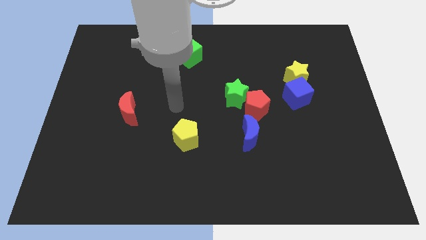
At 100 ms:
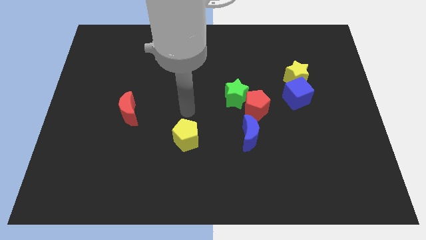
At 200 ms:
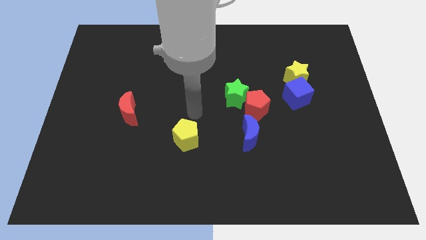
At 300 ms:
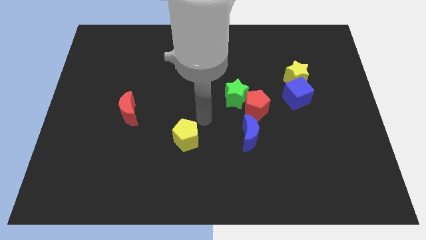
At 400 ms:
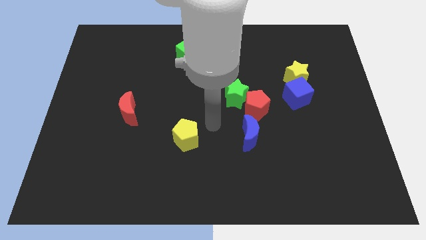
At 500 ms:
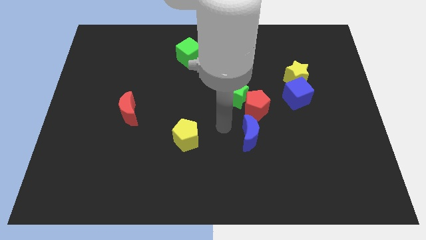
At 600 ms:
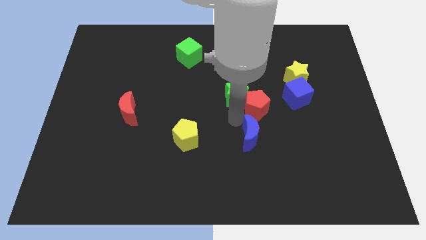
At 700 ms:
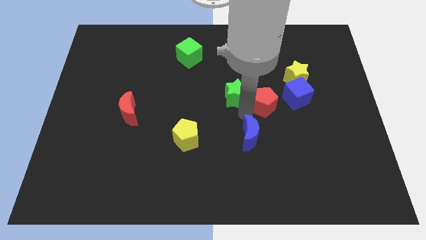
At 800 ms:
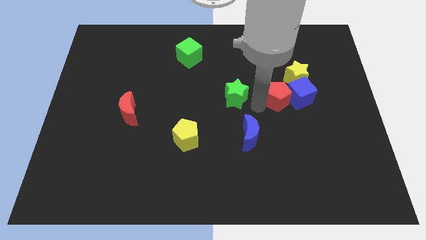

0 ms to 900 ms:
pull the green star apart from the red pentagon

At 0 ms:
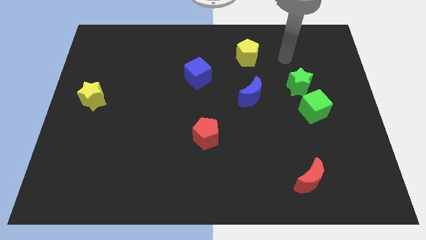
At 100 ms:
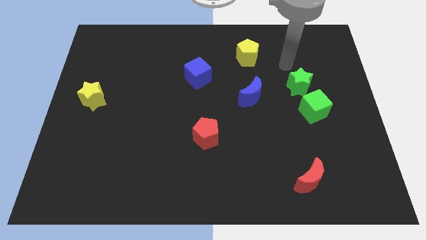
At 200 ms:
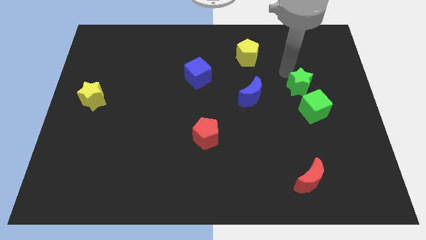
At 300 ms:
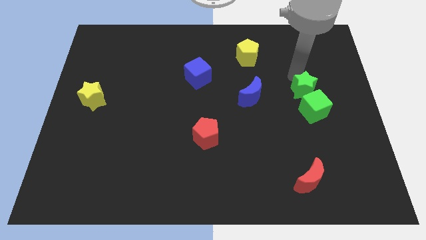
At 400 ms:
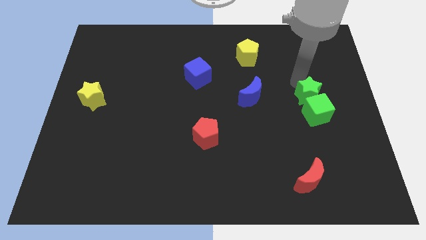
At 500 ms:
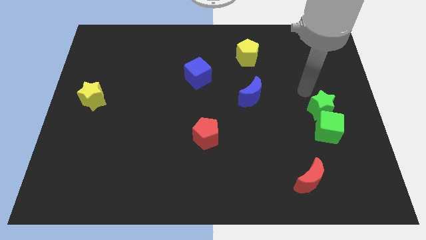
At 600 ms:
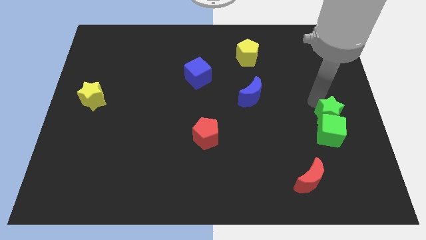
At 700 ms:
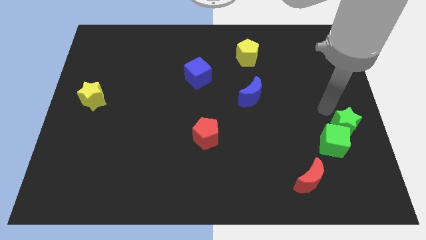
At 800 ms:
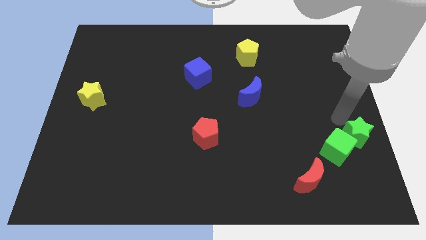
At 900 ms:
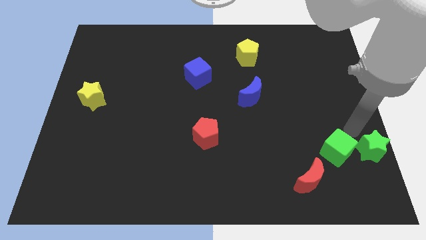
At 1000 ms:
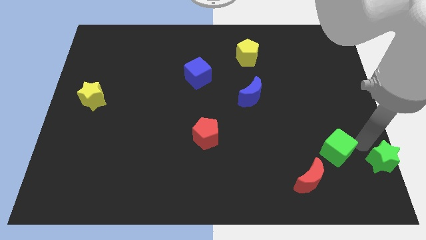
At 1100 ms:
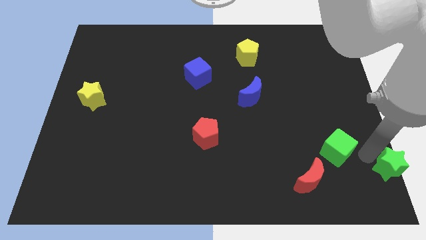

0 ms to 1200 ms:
separate the green cube from the green star

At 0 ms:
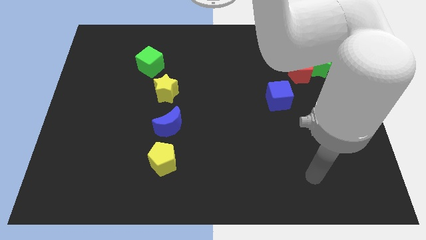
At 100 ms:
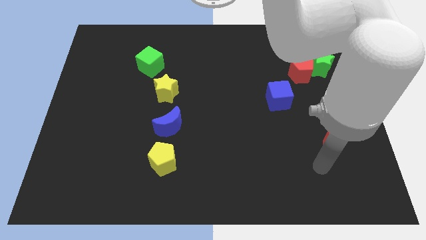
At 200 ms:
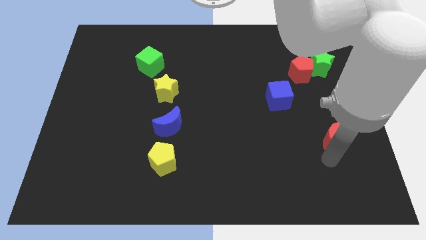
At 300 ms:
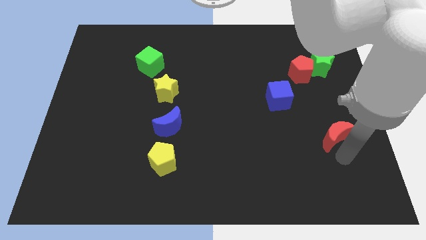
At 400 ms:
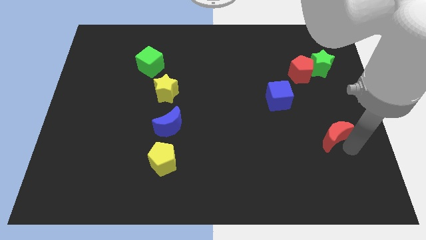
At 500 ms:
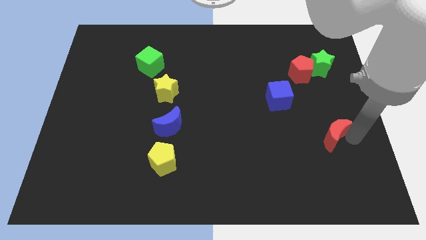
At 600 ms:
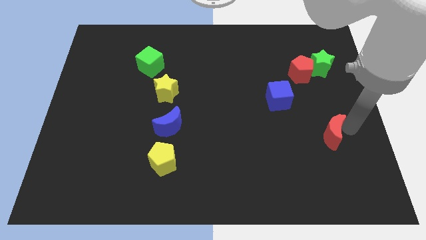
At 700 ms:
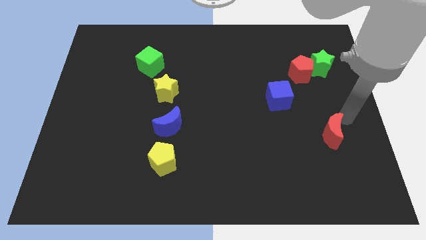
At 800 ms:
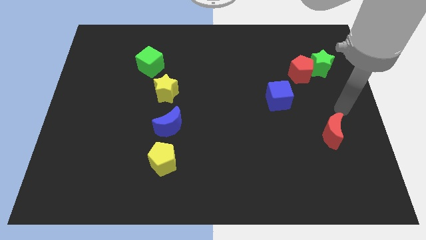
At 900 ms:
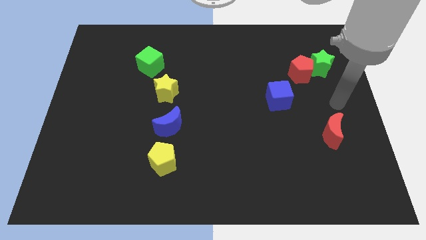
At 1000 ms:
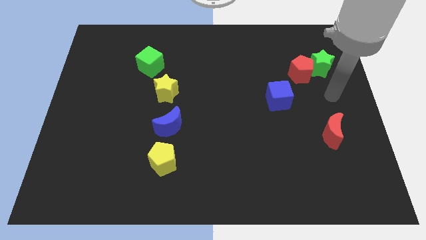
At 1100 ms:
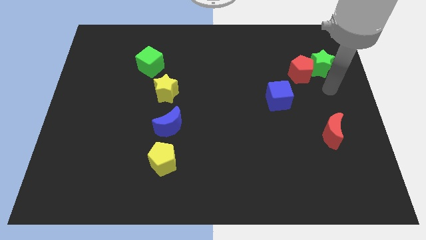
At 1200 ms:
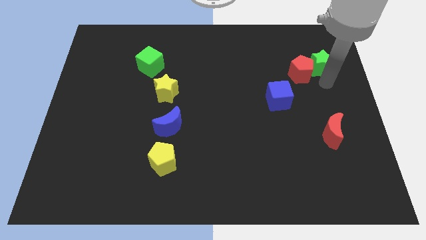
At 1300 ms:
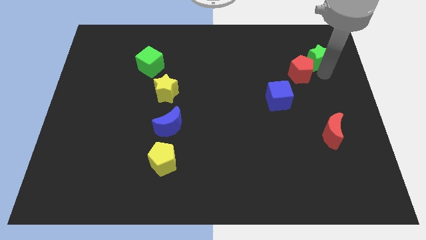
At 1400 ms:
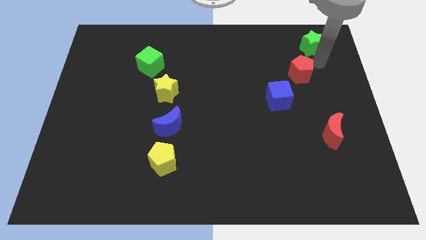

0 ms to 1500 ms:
separate the red pentagon from the green star

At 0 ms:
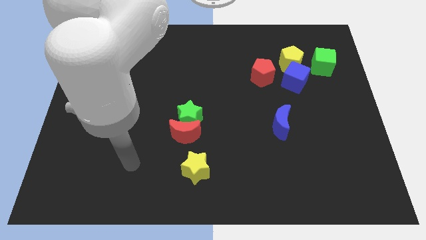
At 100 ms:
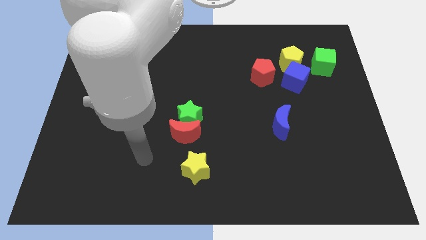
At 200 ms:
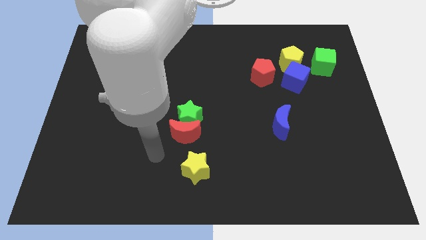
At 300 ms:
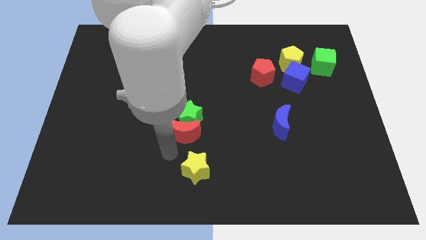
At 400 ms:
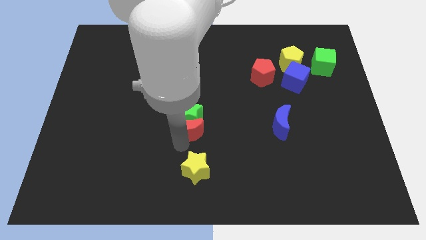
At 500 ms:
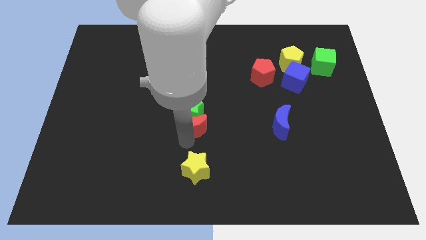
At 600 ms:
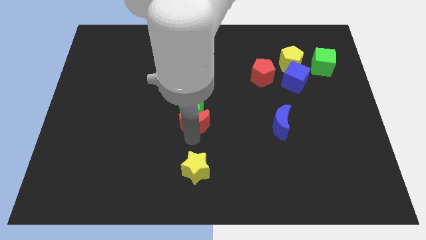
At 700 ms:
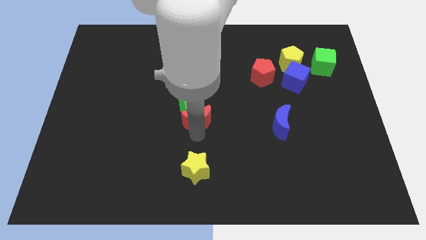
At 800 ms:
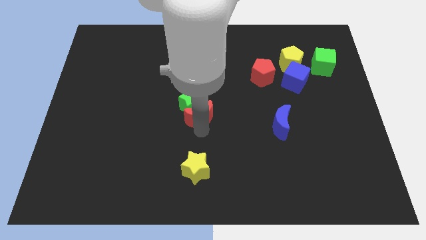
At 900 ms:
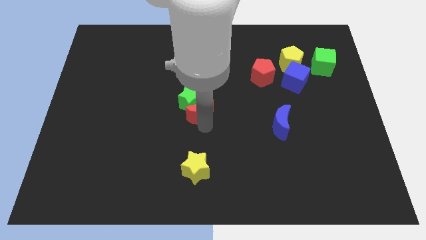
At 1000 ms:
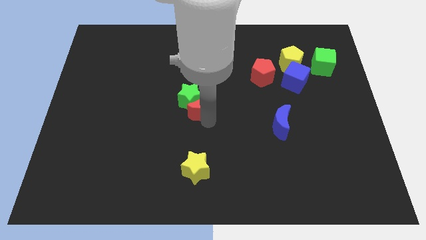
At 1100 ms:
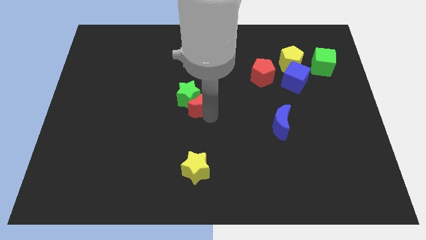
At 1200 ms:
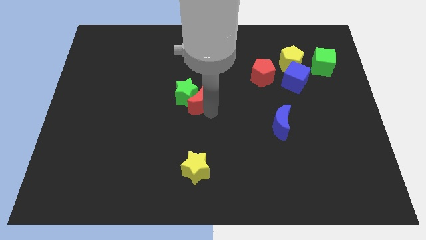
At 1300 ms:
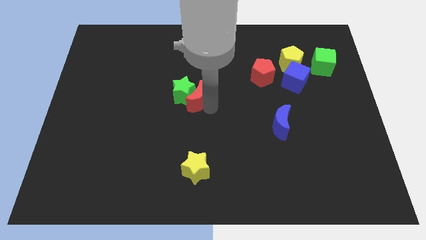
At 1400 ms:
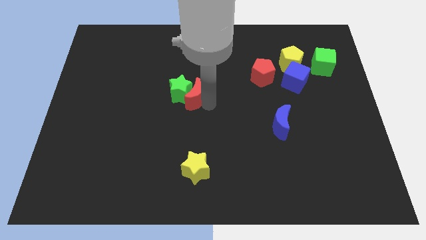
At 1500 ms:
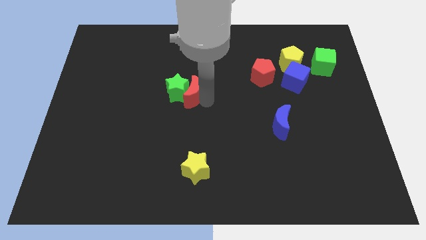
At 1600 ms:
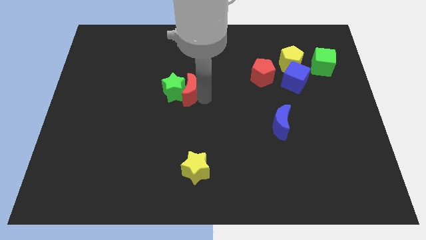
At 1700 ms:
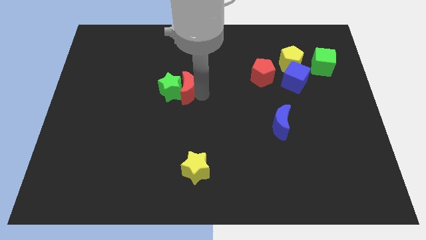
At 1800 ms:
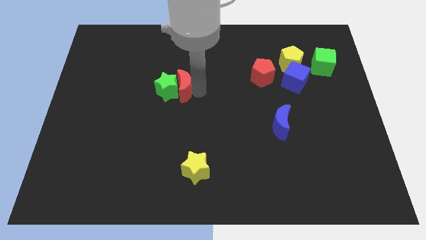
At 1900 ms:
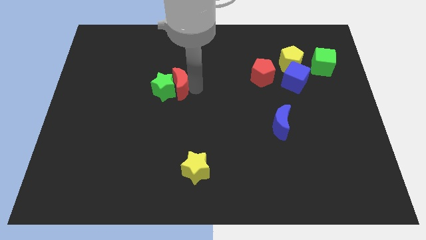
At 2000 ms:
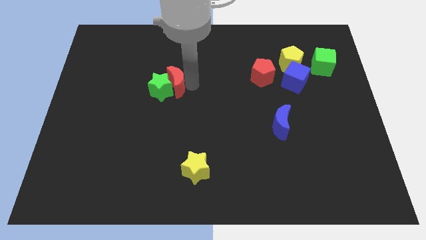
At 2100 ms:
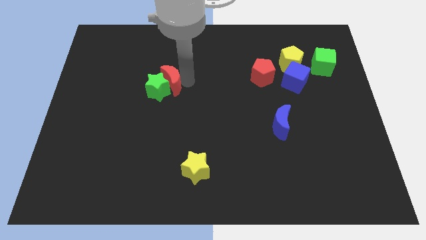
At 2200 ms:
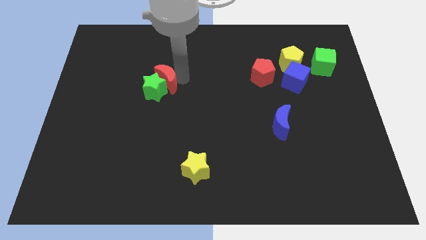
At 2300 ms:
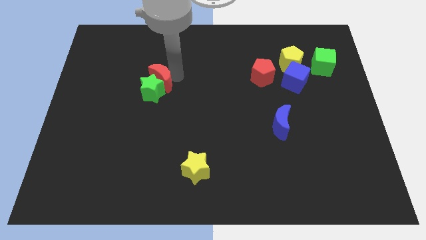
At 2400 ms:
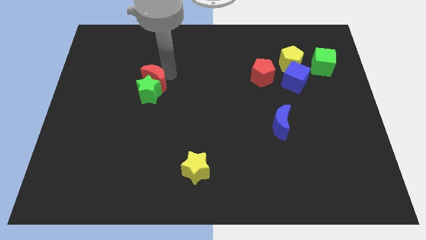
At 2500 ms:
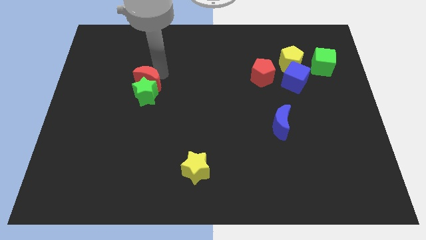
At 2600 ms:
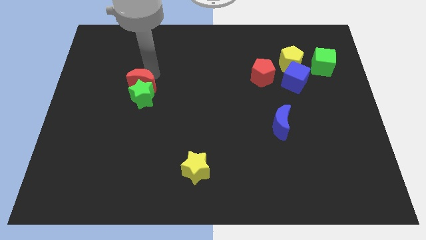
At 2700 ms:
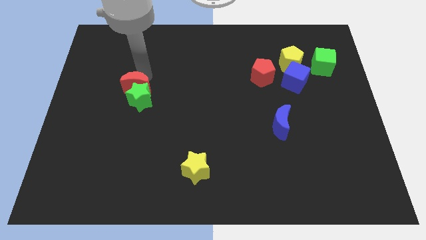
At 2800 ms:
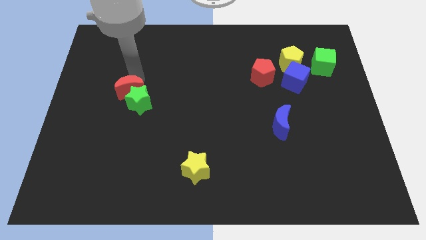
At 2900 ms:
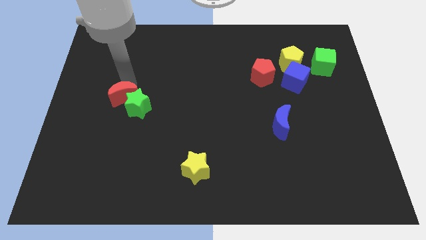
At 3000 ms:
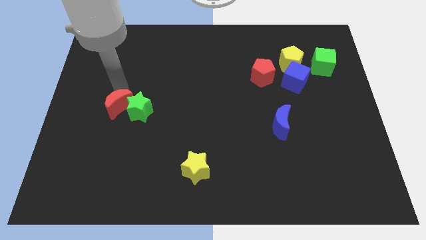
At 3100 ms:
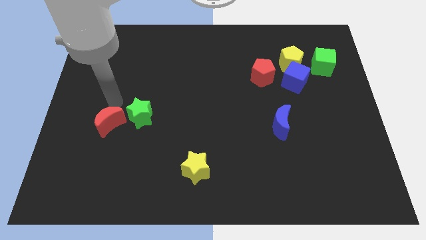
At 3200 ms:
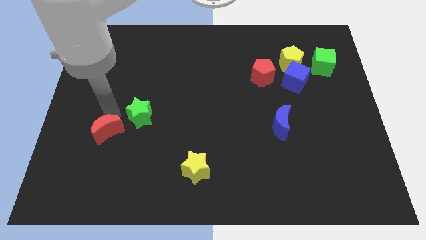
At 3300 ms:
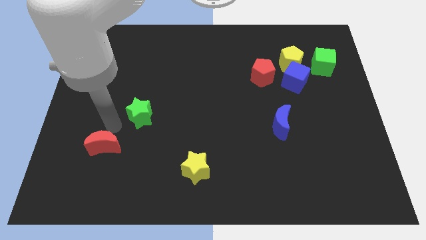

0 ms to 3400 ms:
move the green star away from the red moon

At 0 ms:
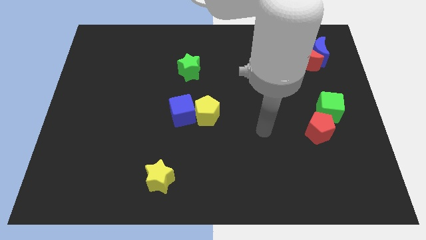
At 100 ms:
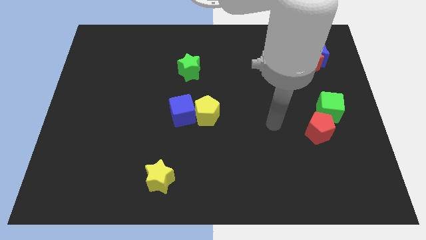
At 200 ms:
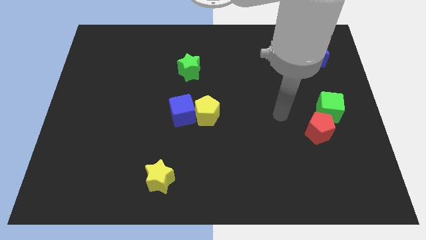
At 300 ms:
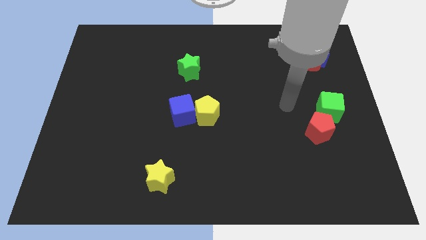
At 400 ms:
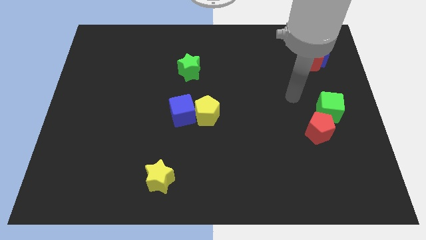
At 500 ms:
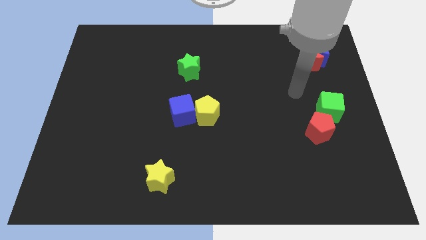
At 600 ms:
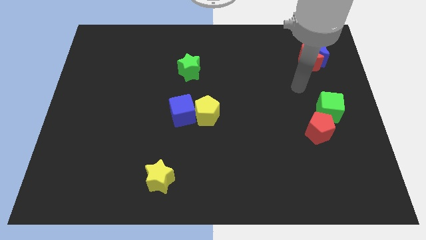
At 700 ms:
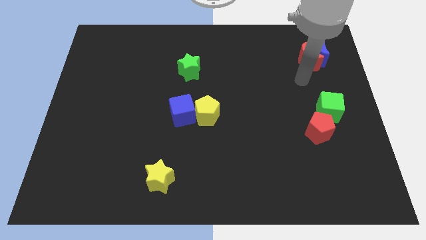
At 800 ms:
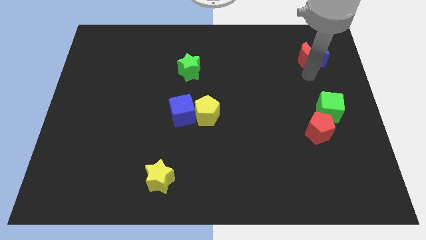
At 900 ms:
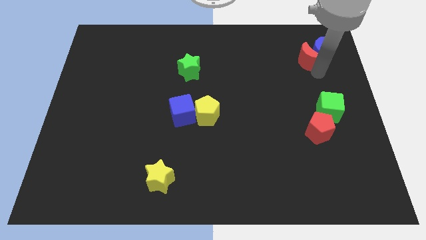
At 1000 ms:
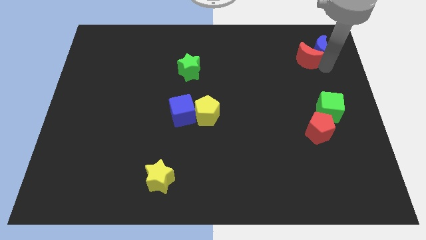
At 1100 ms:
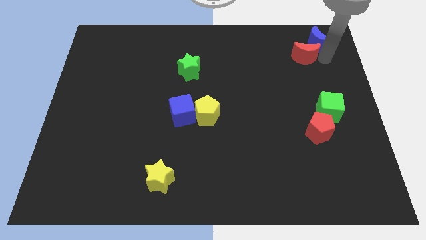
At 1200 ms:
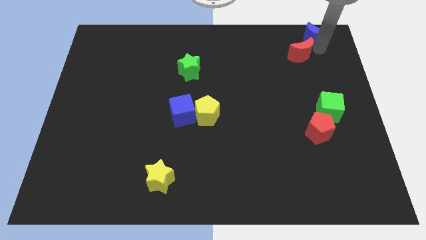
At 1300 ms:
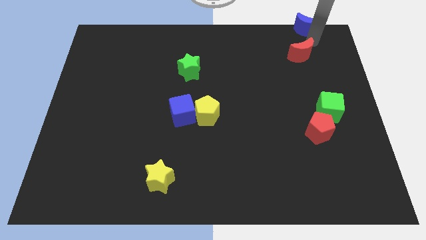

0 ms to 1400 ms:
pull the red moon apart from the blue moon

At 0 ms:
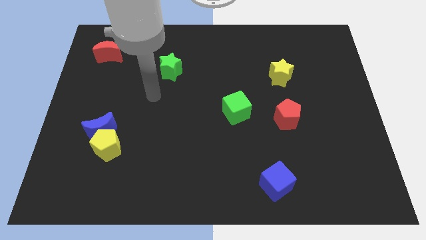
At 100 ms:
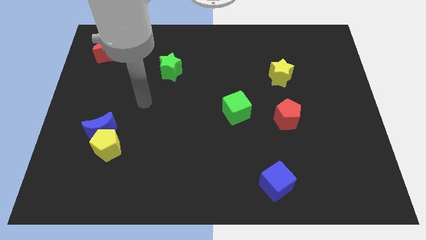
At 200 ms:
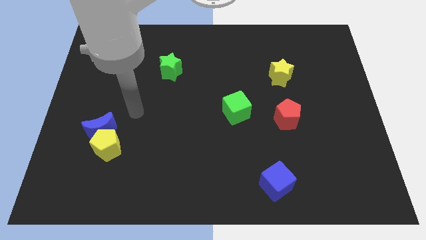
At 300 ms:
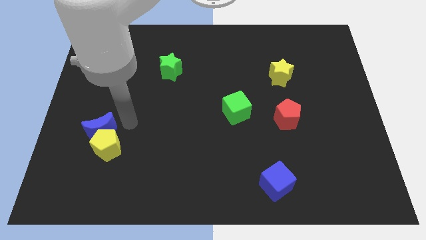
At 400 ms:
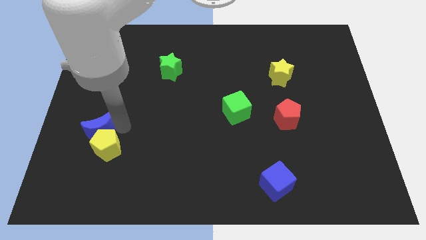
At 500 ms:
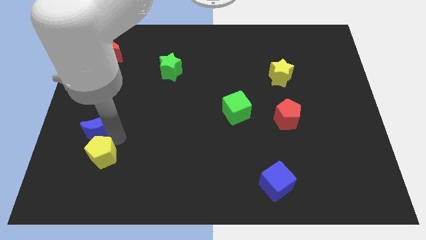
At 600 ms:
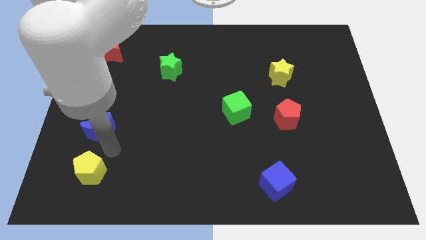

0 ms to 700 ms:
pull the blue moon apart from the yellow pentagon

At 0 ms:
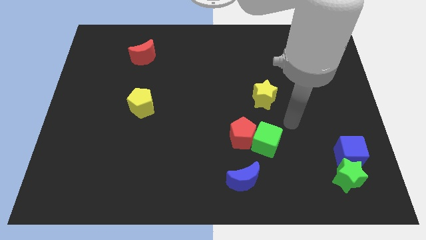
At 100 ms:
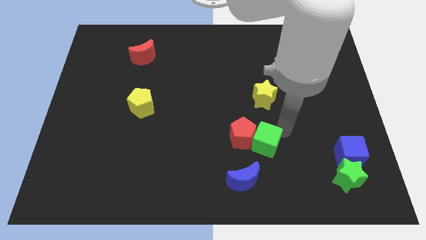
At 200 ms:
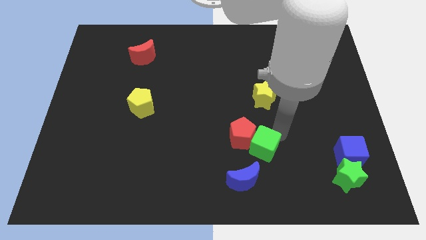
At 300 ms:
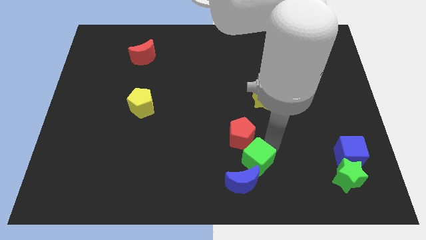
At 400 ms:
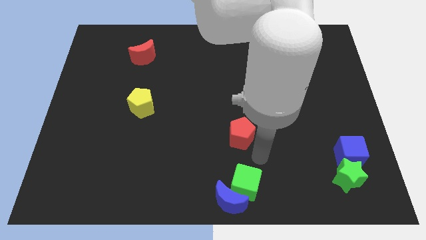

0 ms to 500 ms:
pull the red pentagon apart from the green cube
